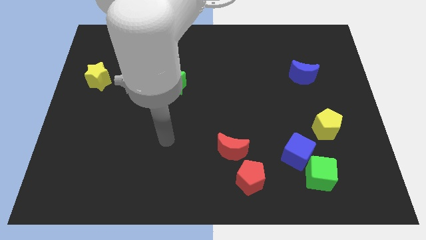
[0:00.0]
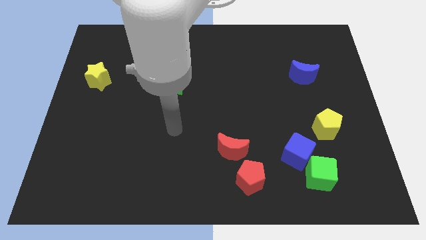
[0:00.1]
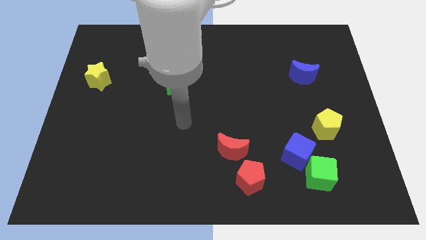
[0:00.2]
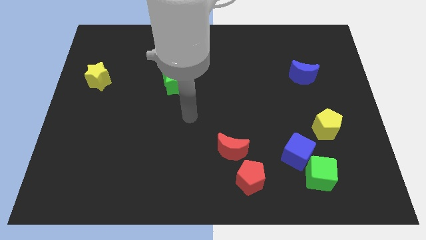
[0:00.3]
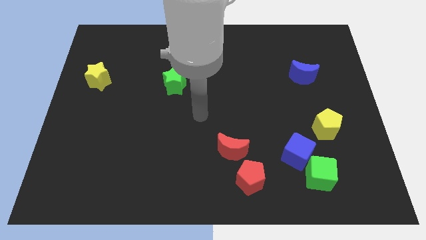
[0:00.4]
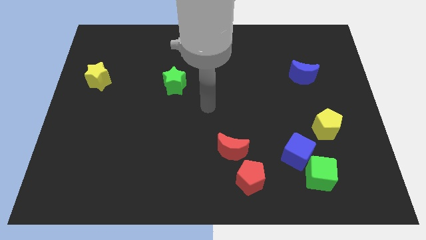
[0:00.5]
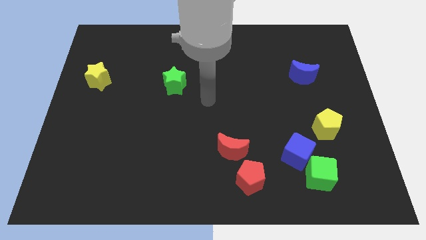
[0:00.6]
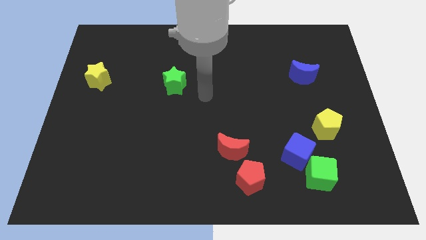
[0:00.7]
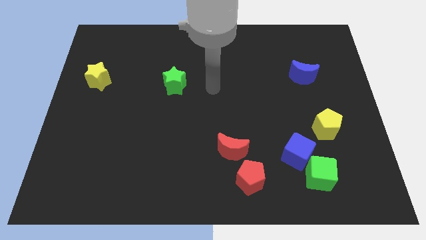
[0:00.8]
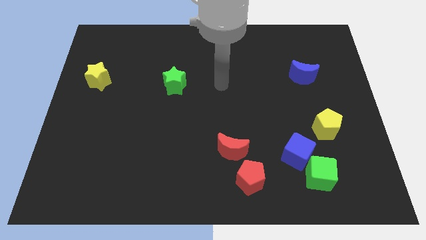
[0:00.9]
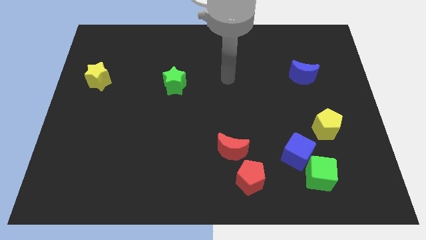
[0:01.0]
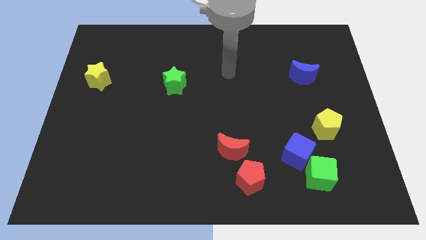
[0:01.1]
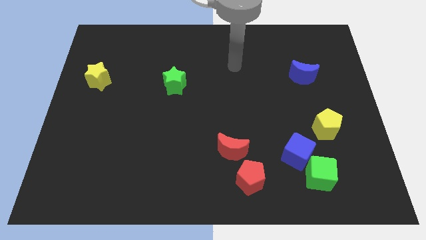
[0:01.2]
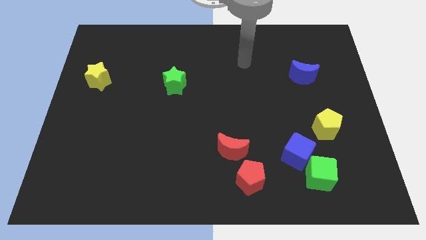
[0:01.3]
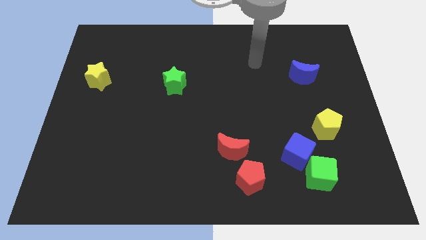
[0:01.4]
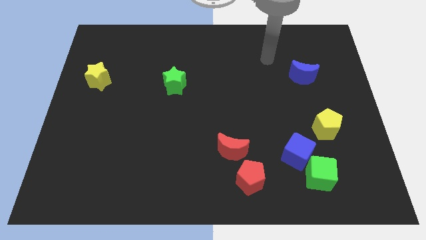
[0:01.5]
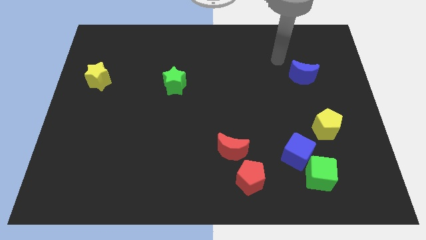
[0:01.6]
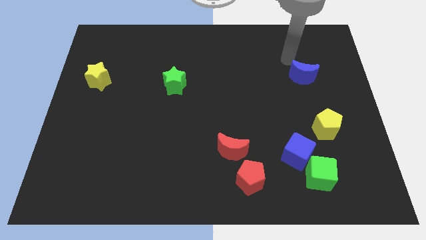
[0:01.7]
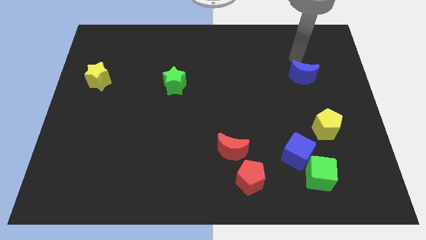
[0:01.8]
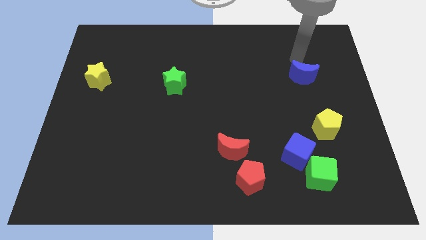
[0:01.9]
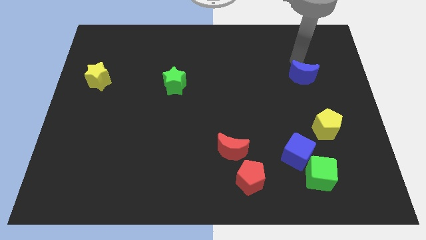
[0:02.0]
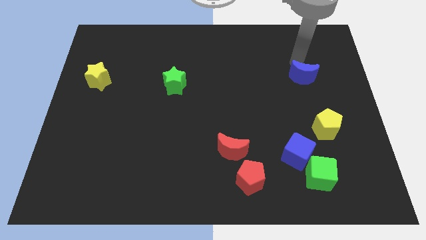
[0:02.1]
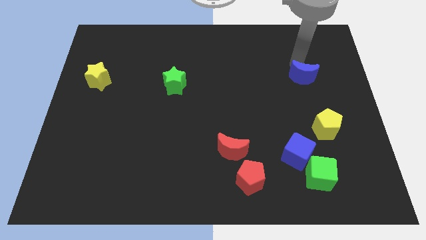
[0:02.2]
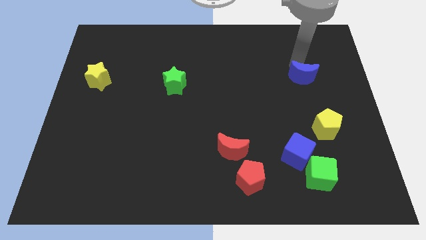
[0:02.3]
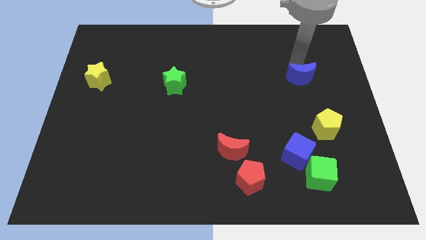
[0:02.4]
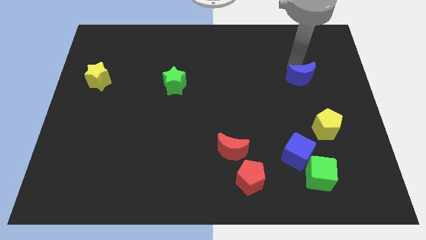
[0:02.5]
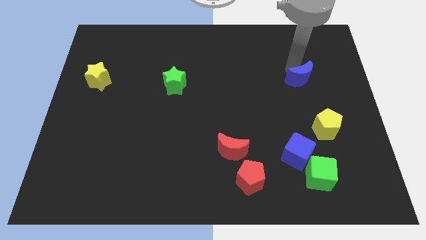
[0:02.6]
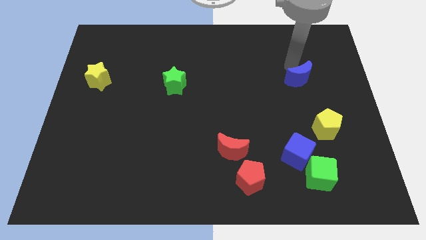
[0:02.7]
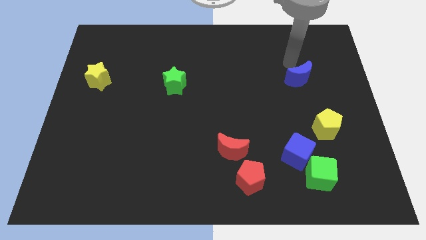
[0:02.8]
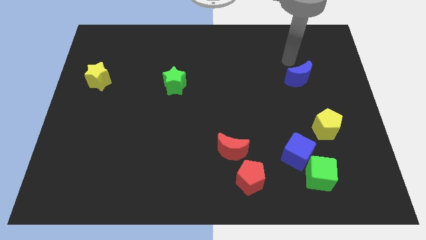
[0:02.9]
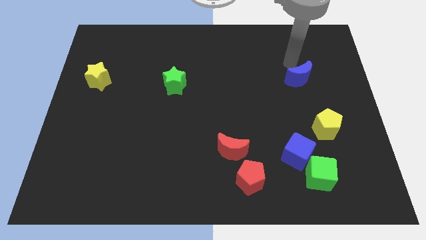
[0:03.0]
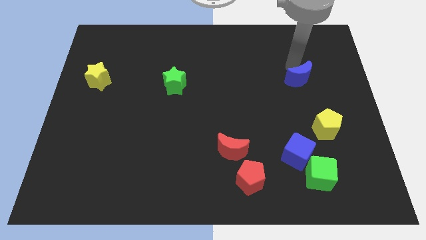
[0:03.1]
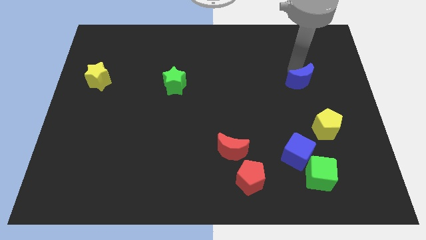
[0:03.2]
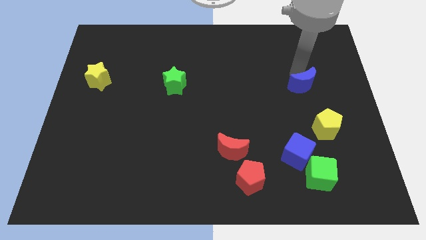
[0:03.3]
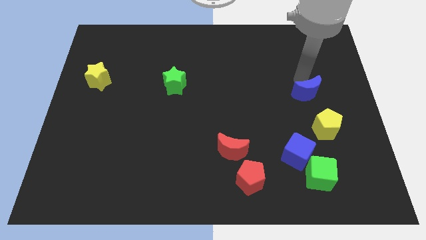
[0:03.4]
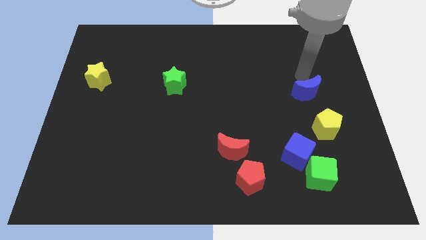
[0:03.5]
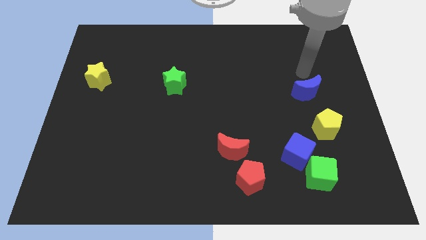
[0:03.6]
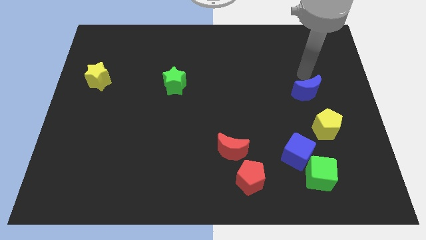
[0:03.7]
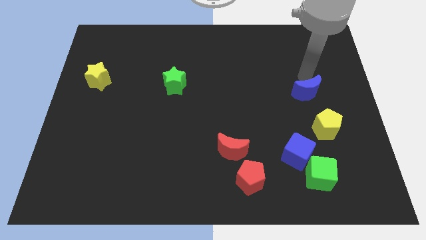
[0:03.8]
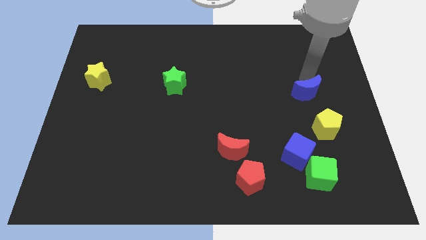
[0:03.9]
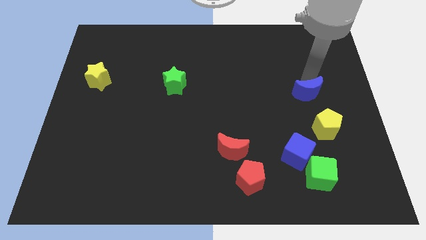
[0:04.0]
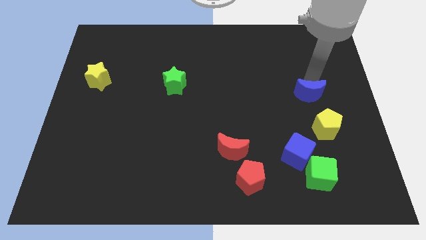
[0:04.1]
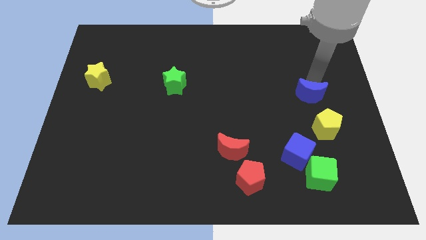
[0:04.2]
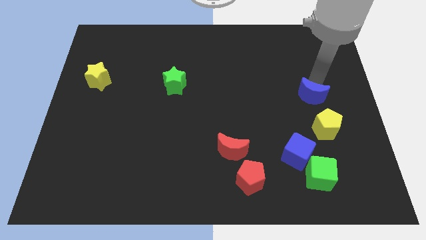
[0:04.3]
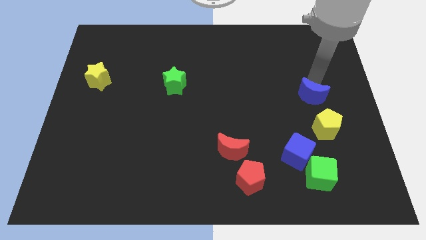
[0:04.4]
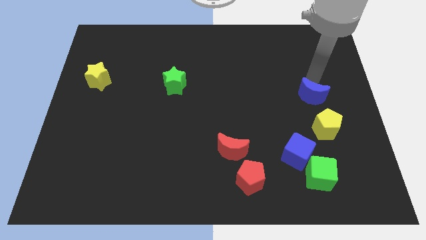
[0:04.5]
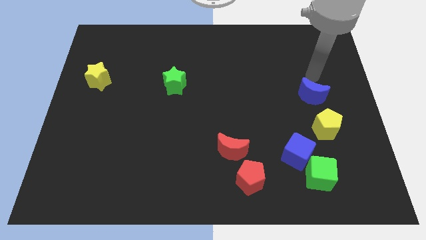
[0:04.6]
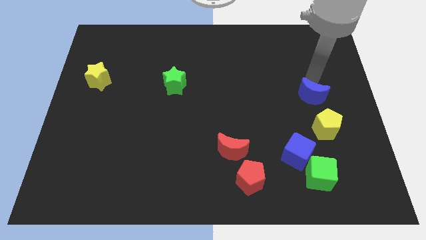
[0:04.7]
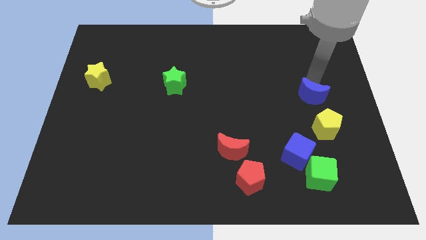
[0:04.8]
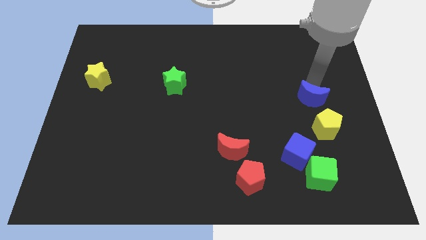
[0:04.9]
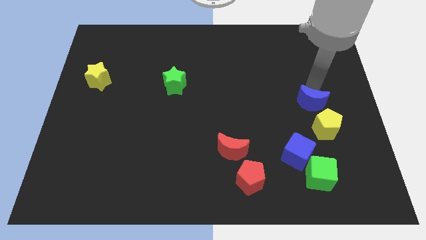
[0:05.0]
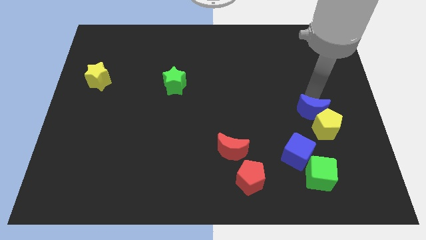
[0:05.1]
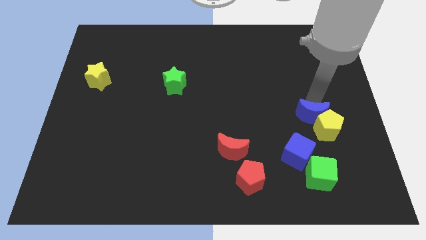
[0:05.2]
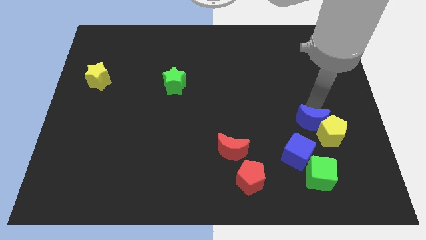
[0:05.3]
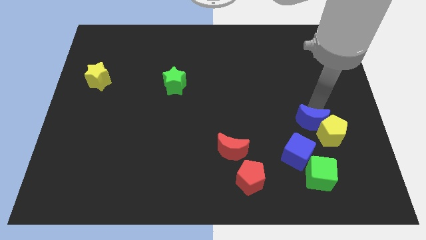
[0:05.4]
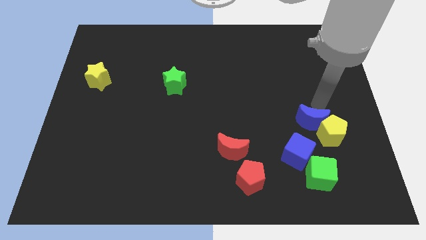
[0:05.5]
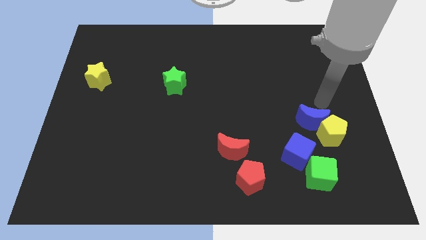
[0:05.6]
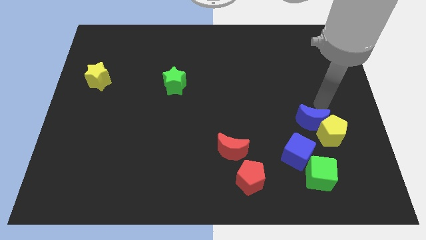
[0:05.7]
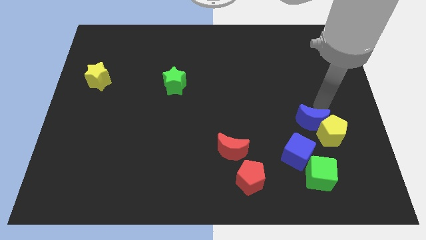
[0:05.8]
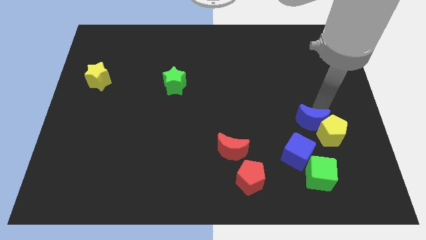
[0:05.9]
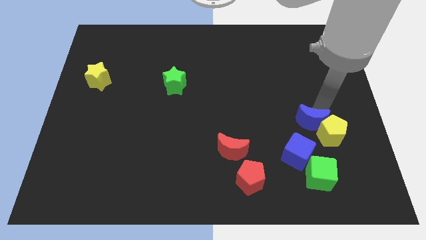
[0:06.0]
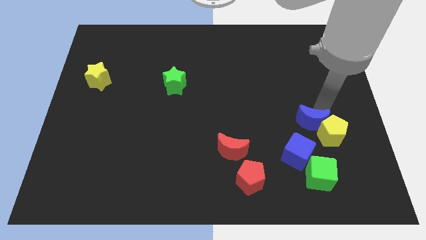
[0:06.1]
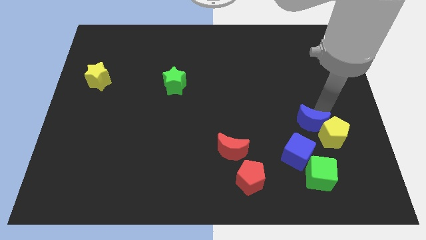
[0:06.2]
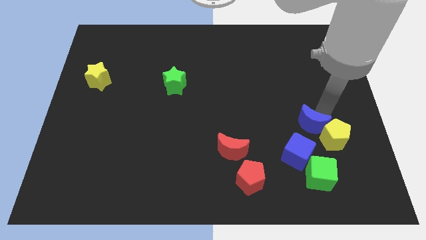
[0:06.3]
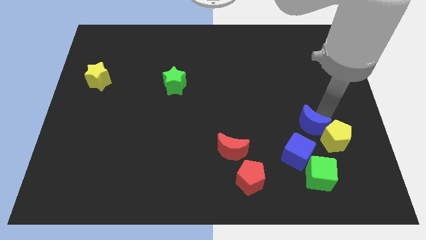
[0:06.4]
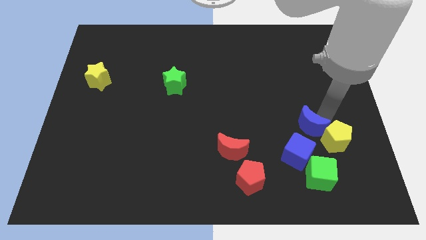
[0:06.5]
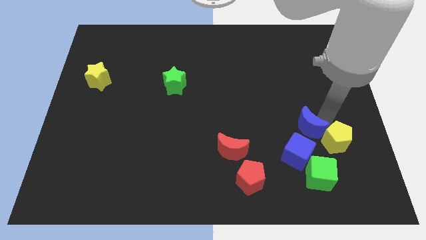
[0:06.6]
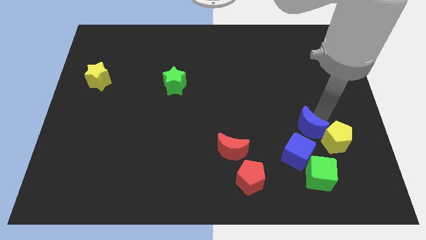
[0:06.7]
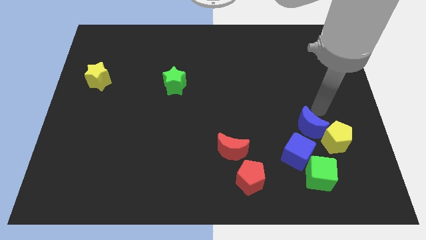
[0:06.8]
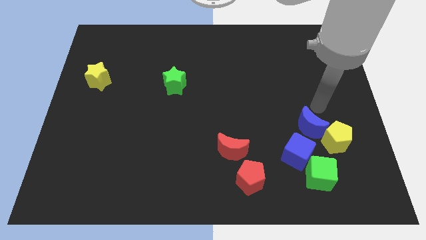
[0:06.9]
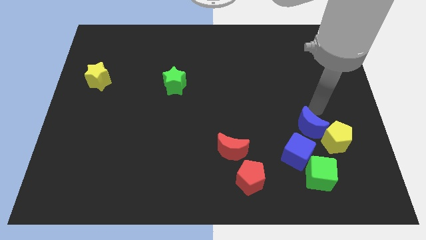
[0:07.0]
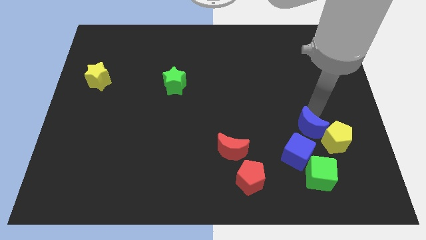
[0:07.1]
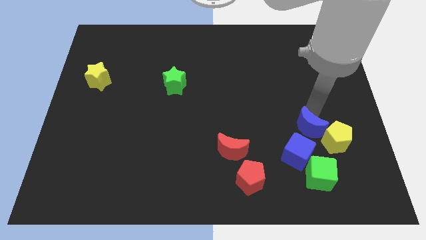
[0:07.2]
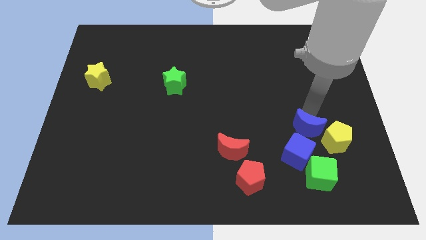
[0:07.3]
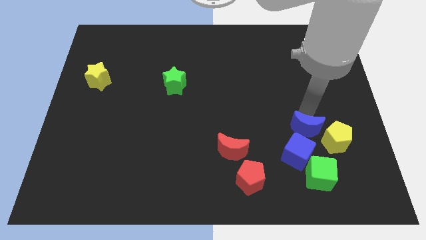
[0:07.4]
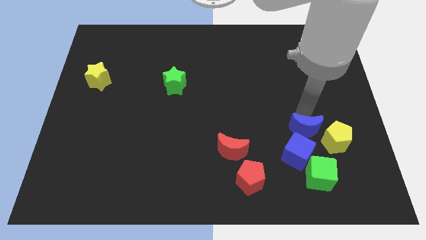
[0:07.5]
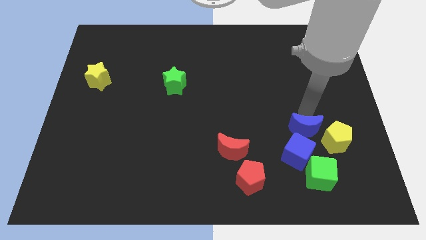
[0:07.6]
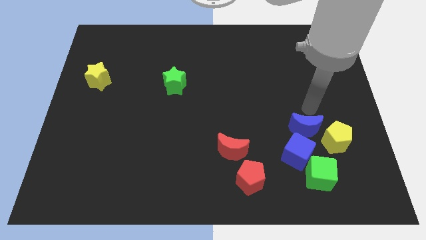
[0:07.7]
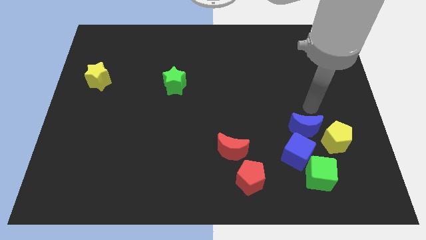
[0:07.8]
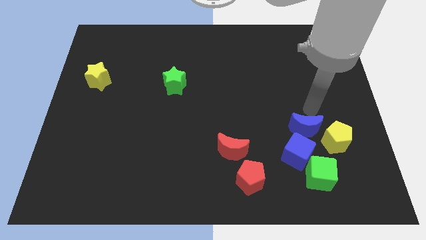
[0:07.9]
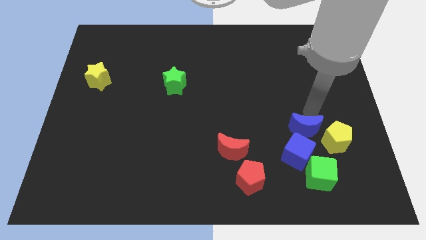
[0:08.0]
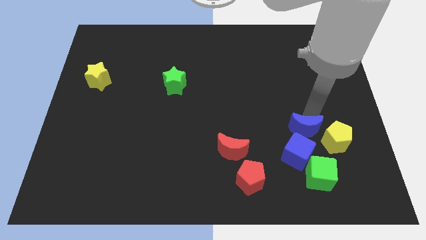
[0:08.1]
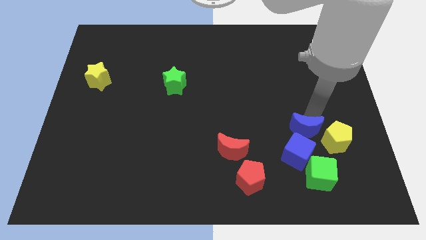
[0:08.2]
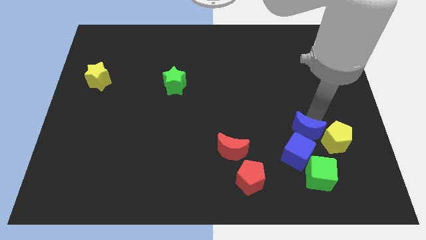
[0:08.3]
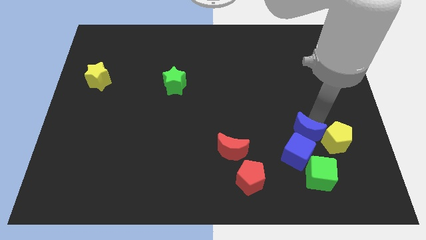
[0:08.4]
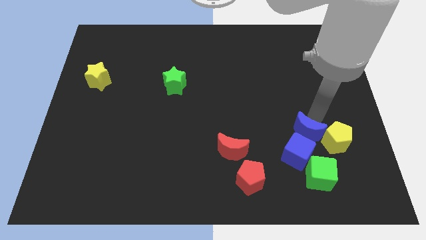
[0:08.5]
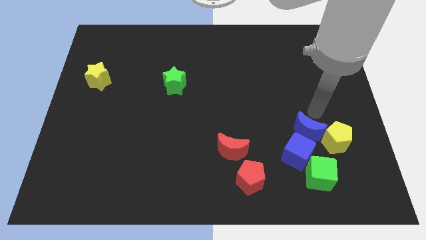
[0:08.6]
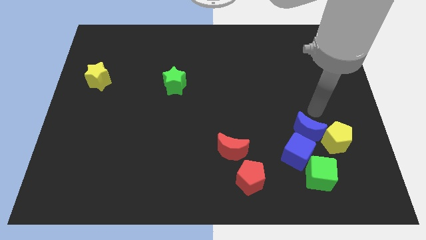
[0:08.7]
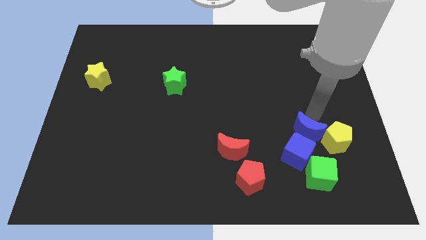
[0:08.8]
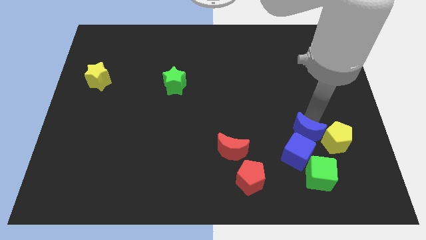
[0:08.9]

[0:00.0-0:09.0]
put the blue moon towards the blue cube
